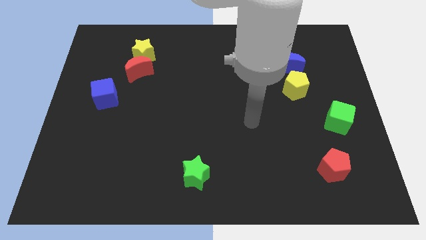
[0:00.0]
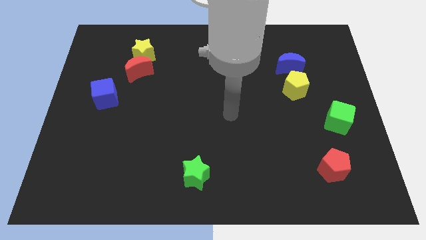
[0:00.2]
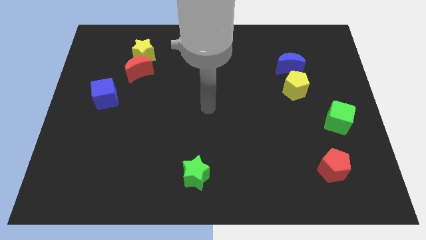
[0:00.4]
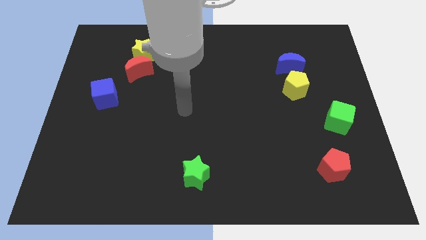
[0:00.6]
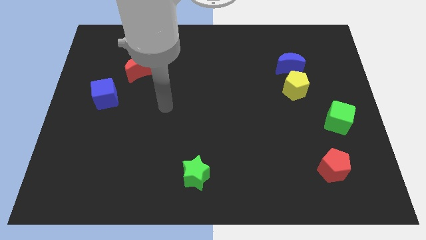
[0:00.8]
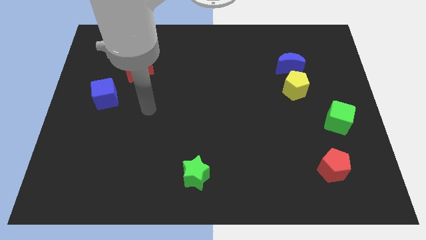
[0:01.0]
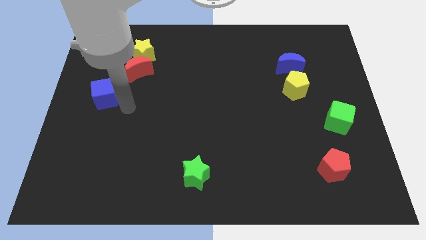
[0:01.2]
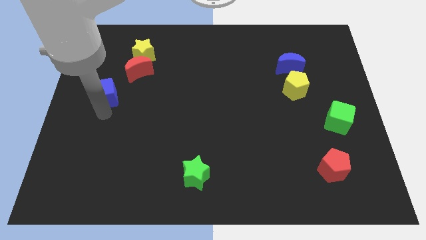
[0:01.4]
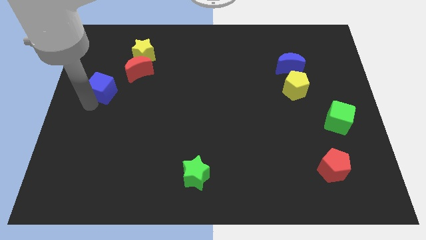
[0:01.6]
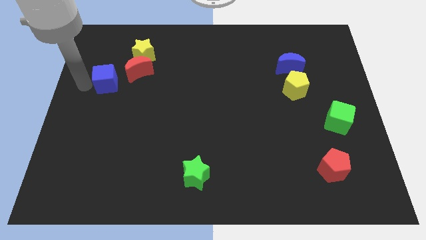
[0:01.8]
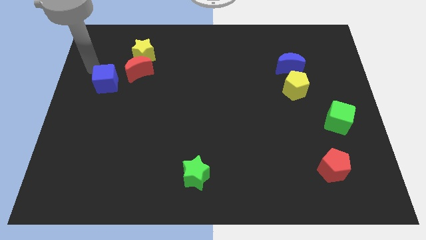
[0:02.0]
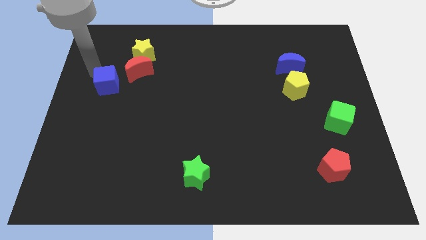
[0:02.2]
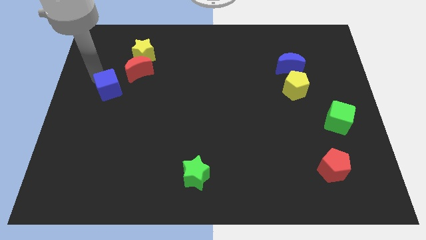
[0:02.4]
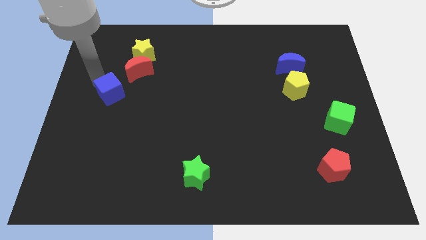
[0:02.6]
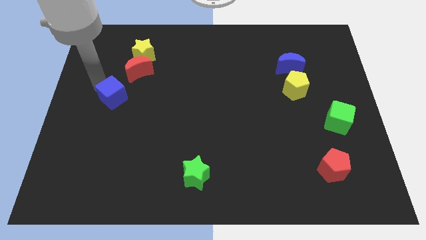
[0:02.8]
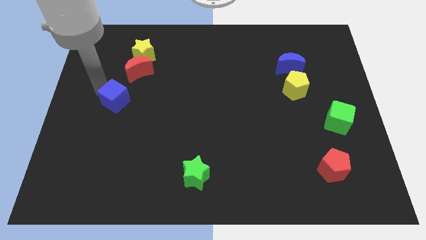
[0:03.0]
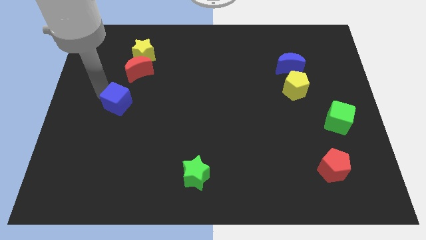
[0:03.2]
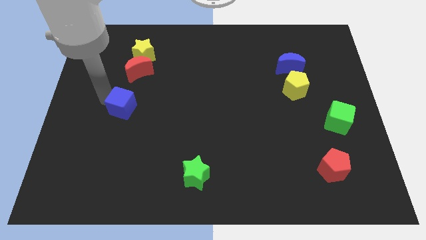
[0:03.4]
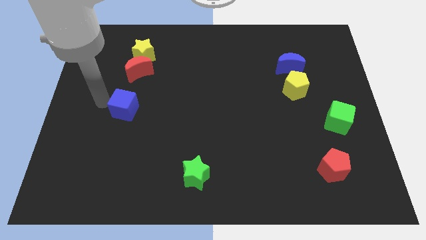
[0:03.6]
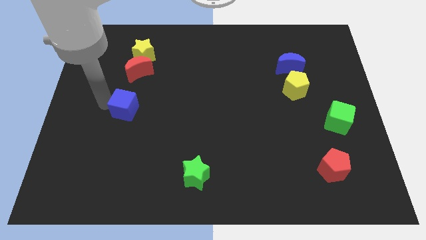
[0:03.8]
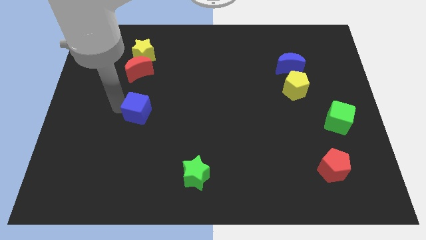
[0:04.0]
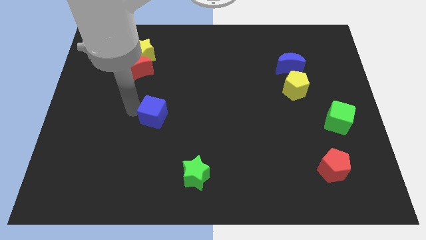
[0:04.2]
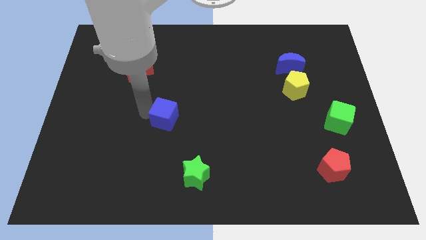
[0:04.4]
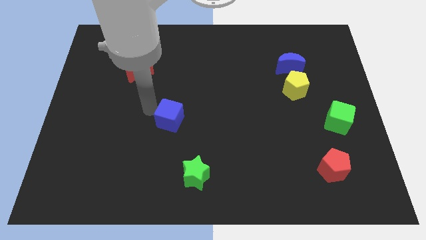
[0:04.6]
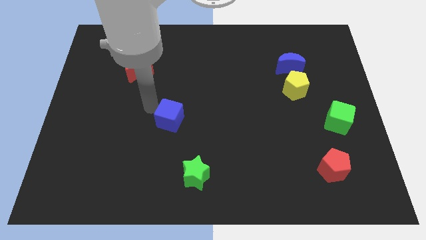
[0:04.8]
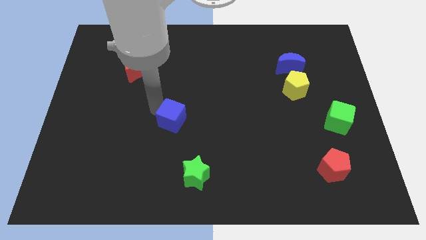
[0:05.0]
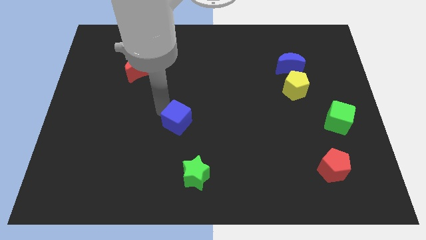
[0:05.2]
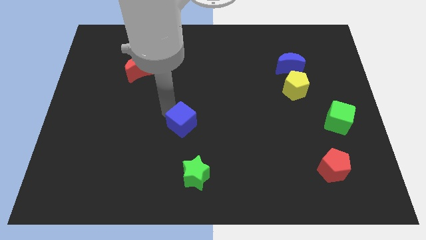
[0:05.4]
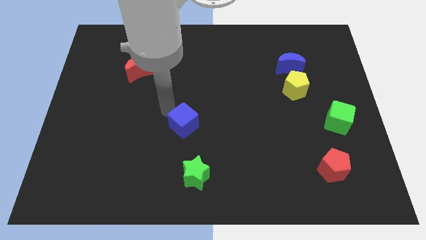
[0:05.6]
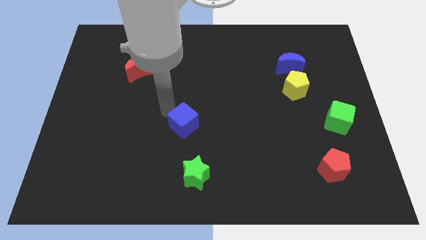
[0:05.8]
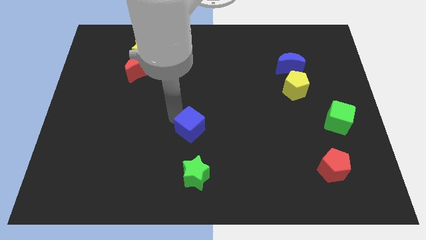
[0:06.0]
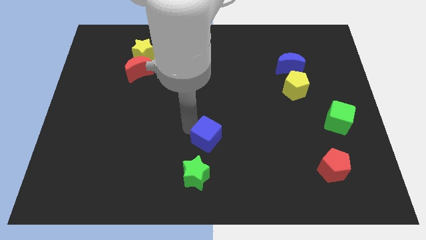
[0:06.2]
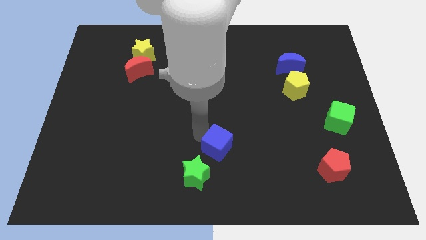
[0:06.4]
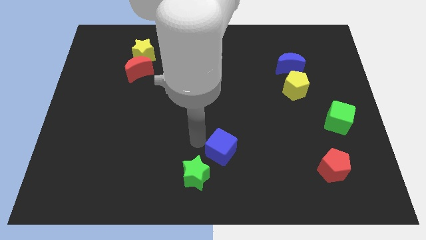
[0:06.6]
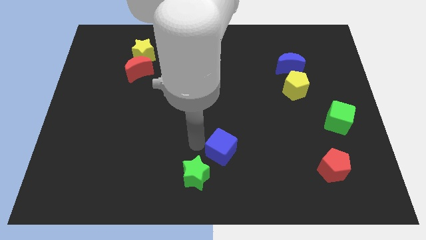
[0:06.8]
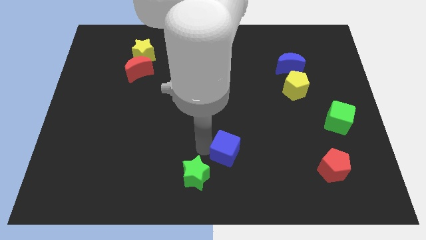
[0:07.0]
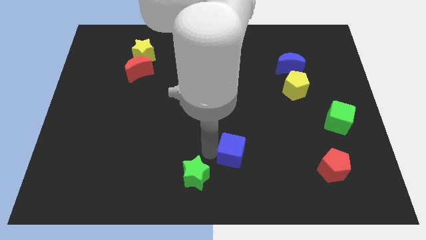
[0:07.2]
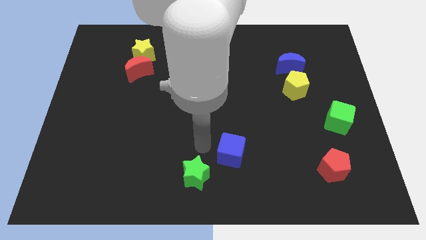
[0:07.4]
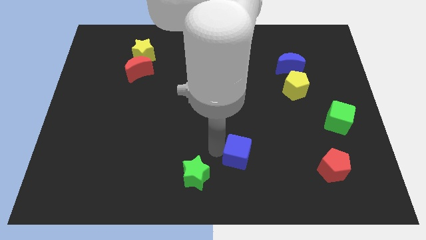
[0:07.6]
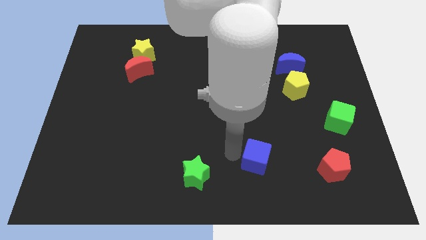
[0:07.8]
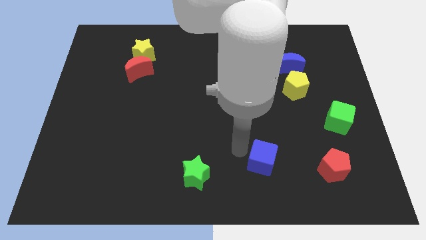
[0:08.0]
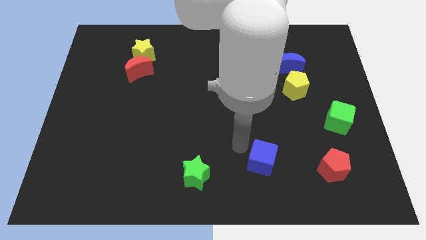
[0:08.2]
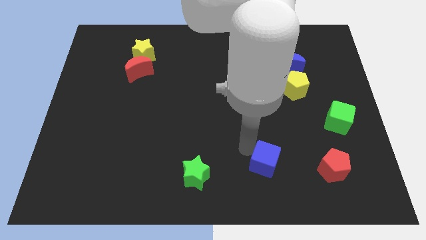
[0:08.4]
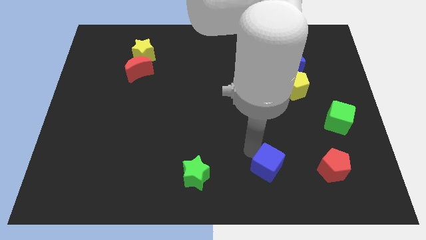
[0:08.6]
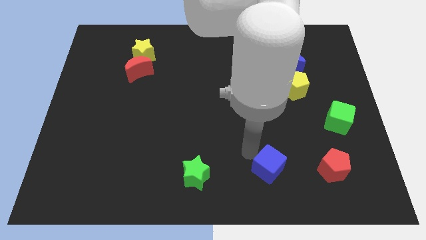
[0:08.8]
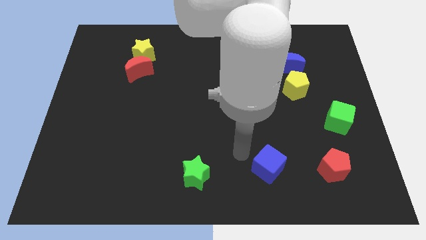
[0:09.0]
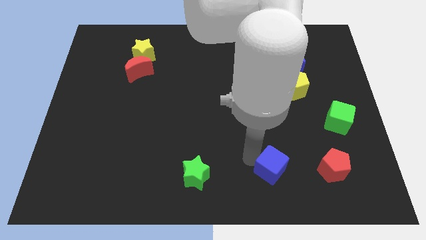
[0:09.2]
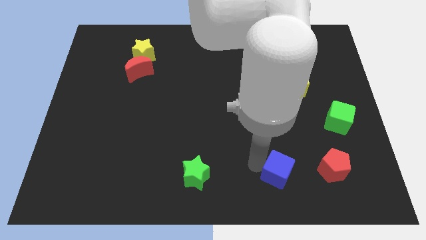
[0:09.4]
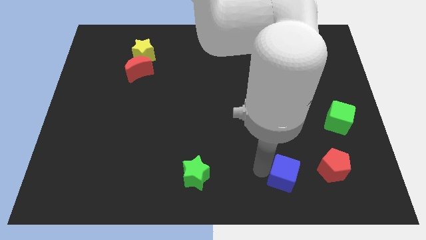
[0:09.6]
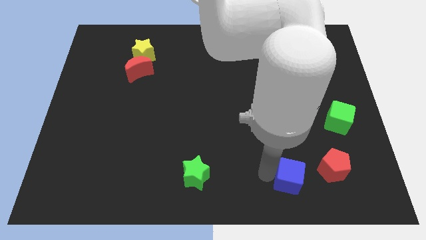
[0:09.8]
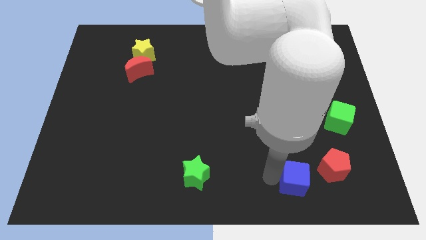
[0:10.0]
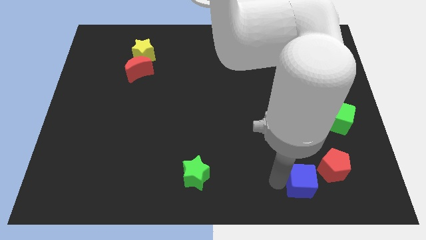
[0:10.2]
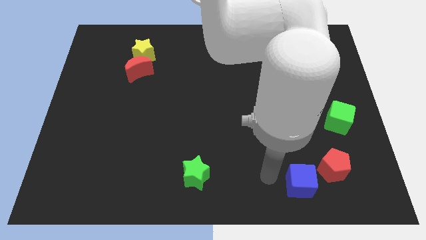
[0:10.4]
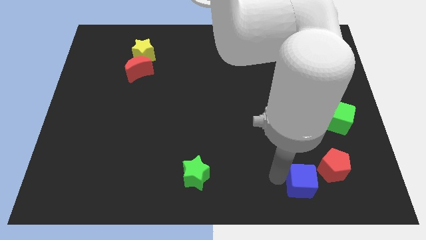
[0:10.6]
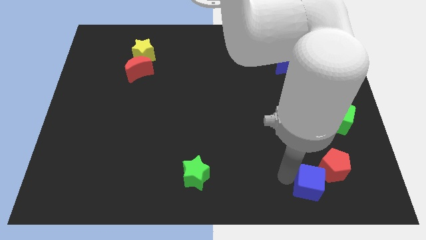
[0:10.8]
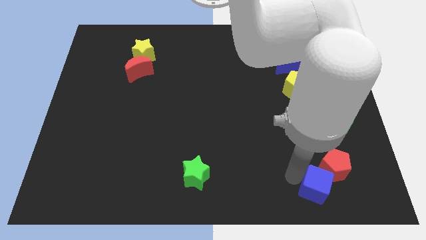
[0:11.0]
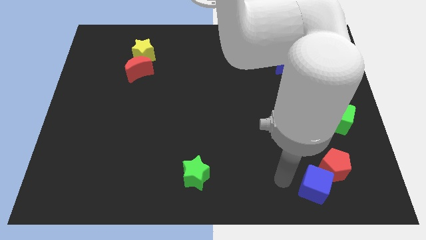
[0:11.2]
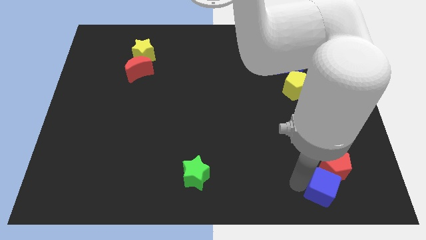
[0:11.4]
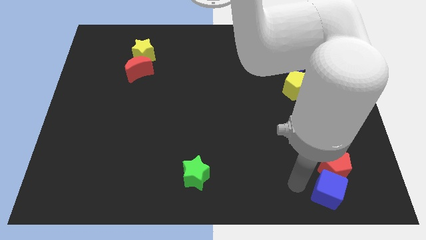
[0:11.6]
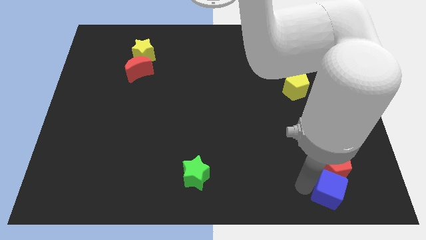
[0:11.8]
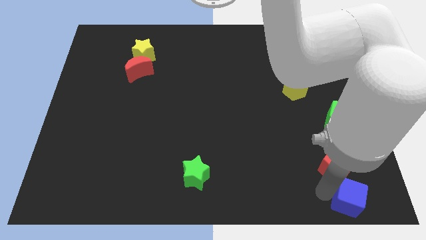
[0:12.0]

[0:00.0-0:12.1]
move the blue cube to the lower right corner

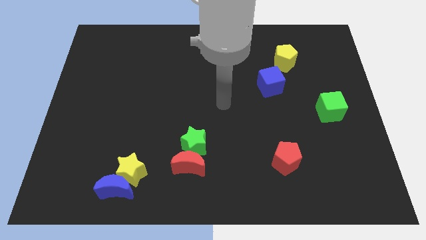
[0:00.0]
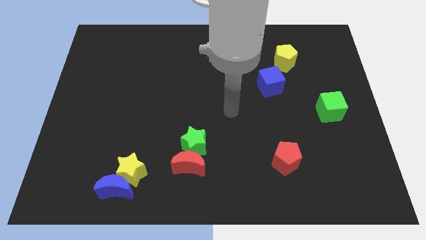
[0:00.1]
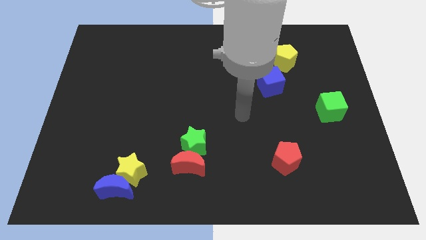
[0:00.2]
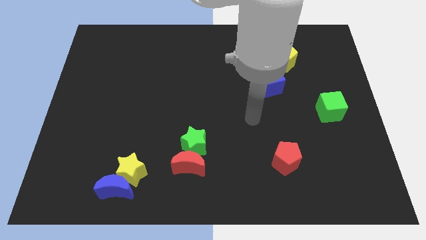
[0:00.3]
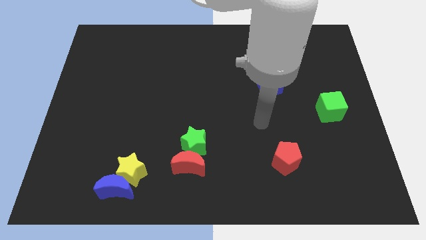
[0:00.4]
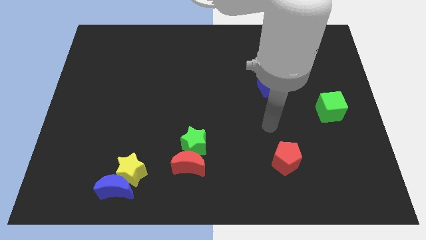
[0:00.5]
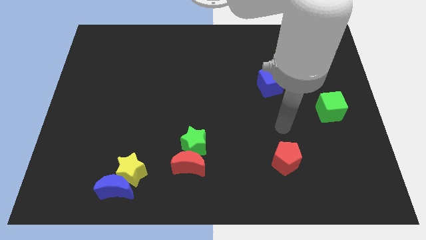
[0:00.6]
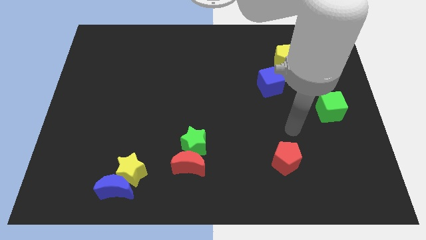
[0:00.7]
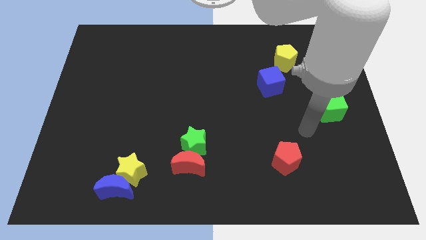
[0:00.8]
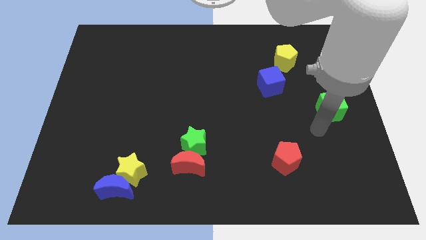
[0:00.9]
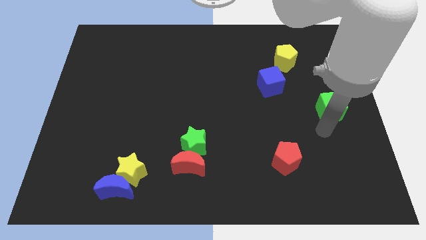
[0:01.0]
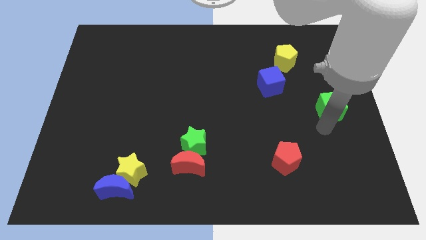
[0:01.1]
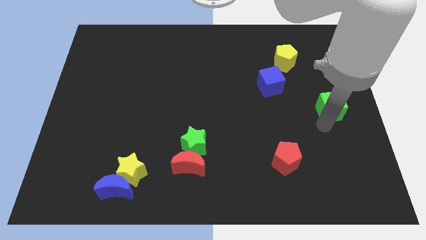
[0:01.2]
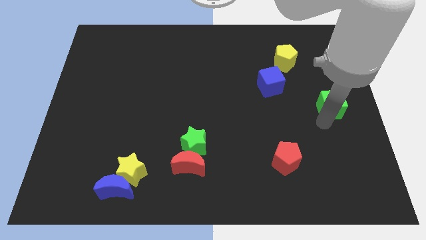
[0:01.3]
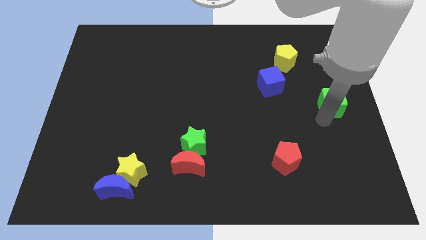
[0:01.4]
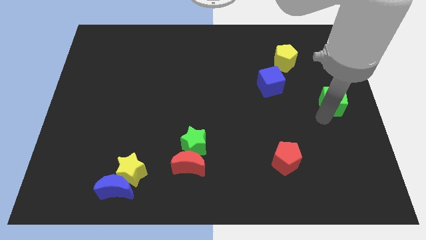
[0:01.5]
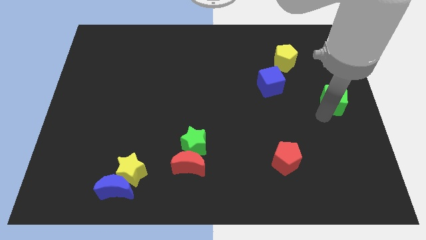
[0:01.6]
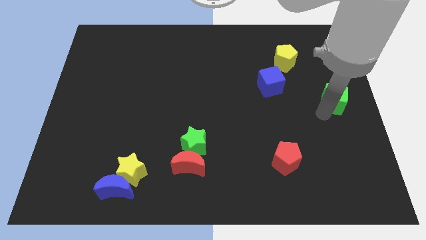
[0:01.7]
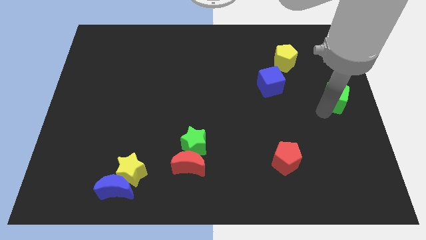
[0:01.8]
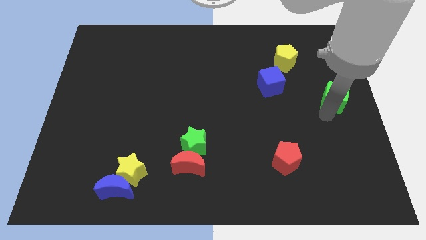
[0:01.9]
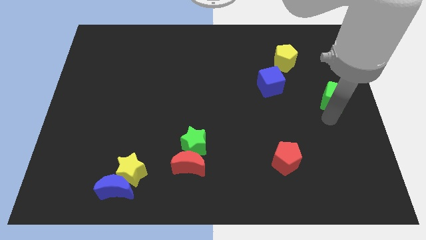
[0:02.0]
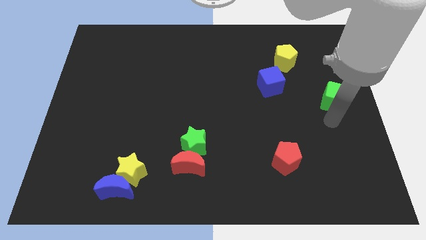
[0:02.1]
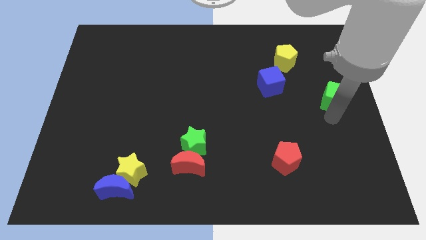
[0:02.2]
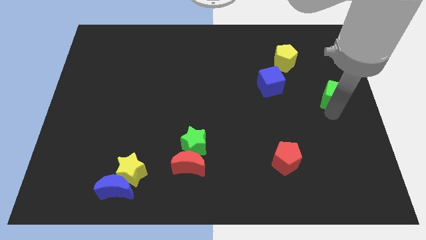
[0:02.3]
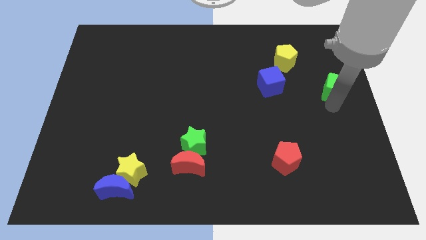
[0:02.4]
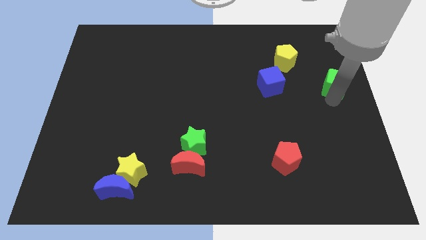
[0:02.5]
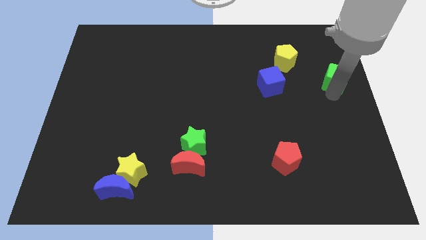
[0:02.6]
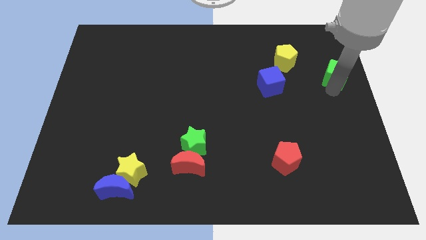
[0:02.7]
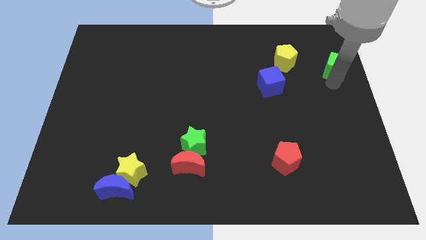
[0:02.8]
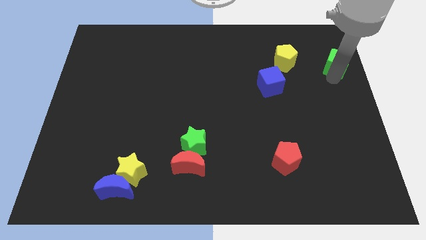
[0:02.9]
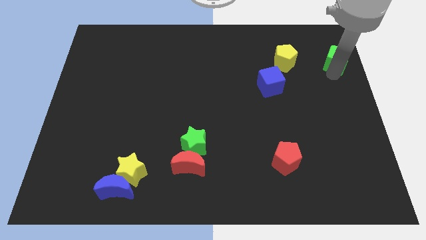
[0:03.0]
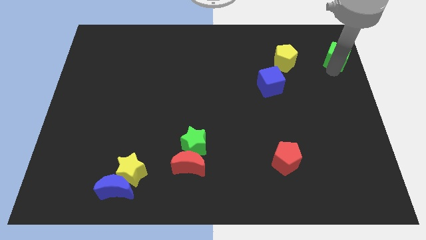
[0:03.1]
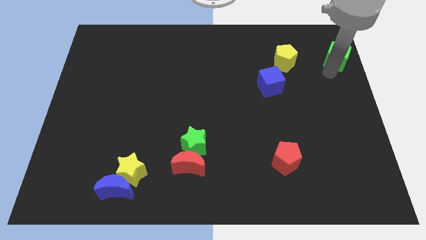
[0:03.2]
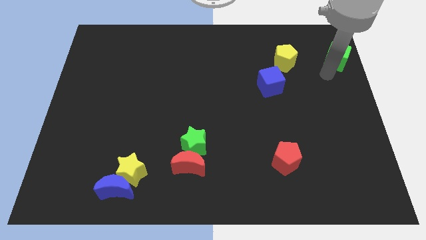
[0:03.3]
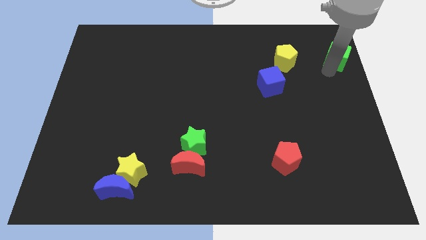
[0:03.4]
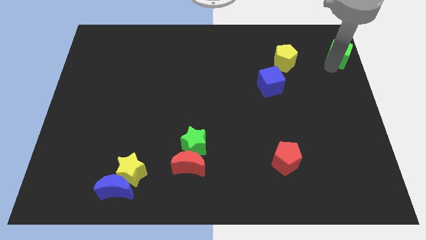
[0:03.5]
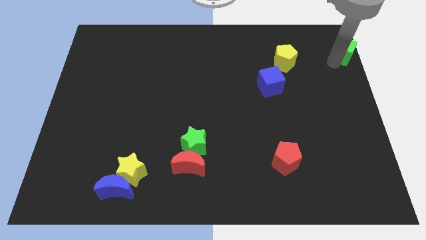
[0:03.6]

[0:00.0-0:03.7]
put the green cube to the top right of the board
